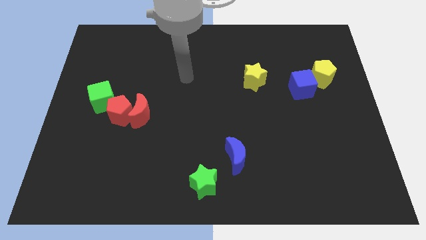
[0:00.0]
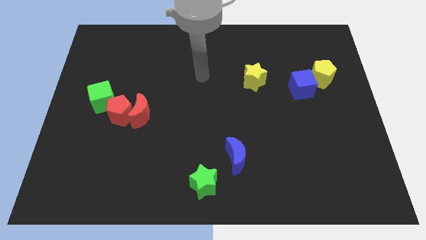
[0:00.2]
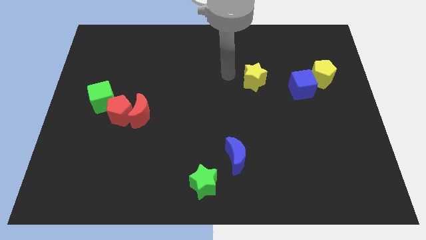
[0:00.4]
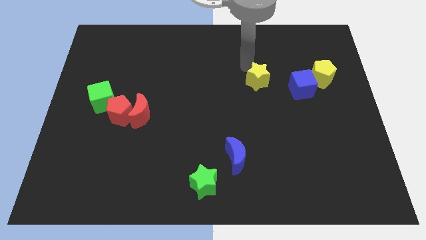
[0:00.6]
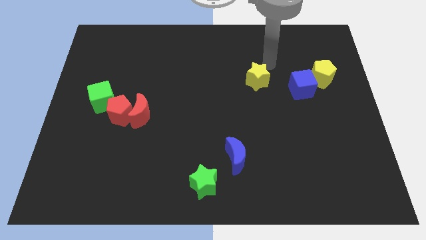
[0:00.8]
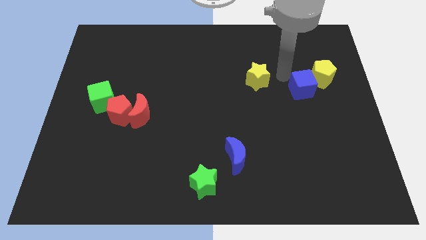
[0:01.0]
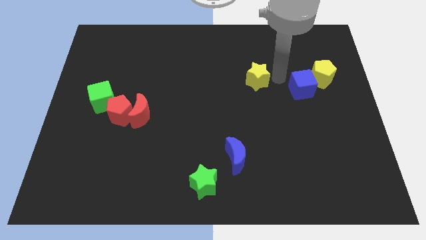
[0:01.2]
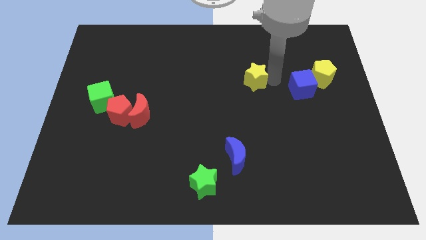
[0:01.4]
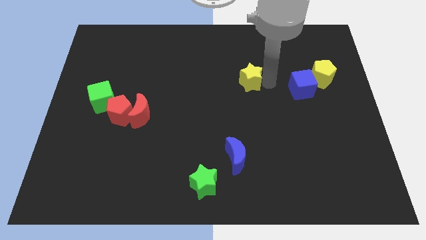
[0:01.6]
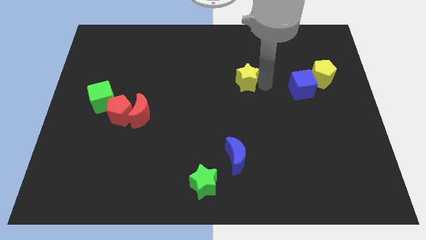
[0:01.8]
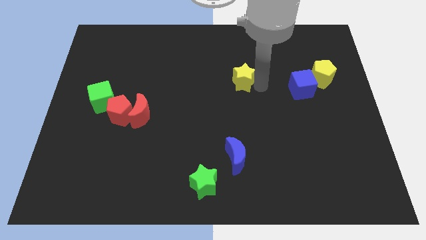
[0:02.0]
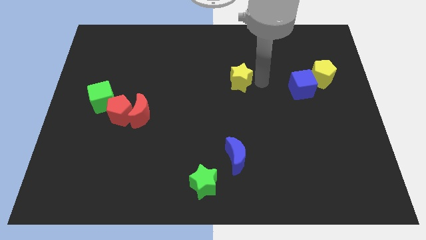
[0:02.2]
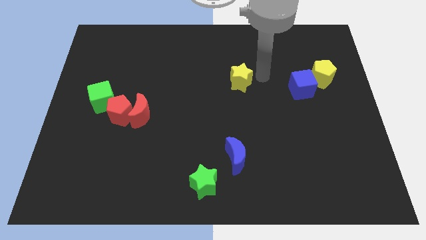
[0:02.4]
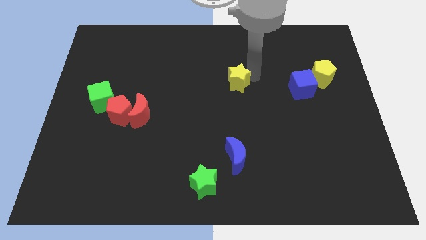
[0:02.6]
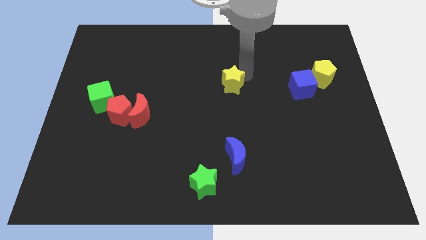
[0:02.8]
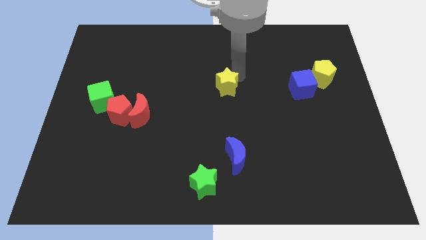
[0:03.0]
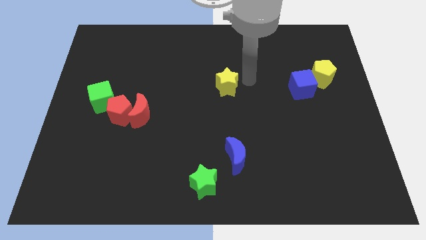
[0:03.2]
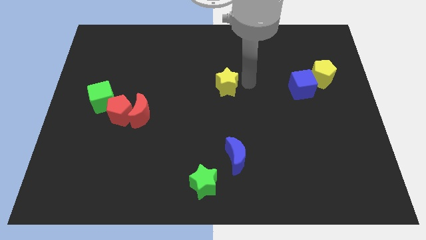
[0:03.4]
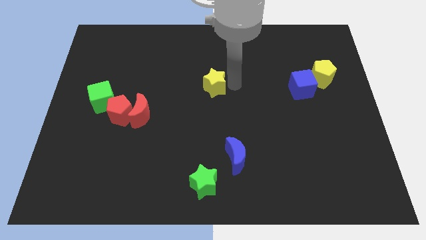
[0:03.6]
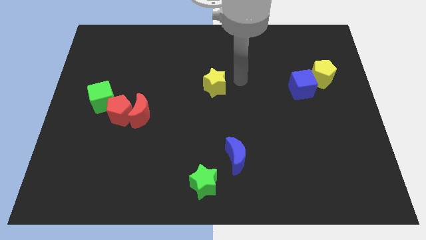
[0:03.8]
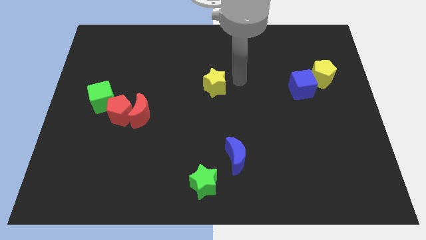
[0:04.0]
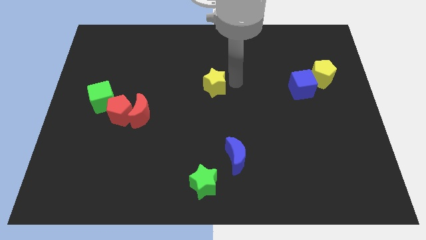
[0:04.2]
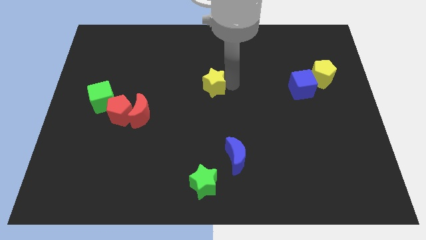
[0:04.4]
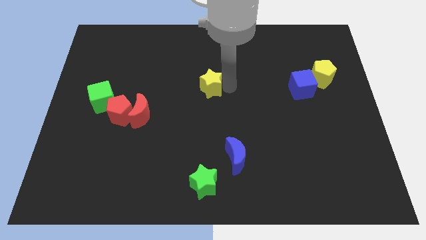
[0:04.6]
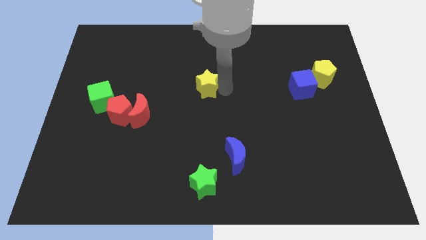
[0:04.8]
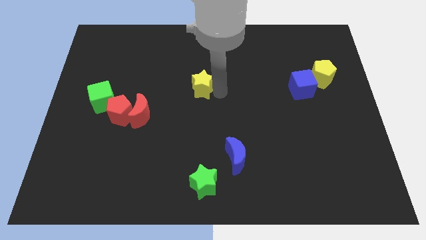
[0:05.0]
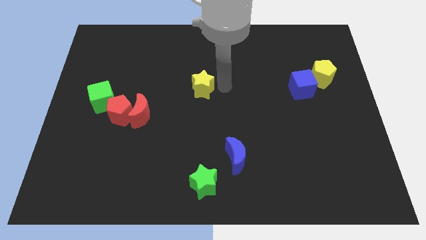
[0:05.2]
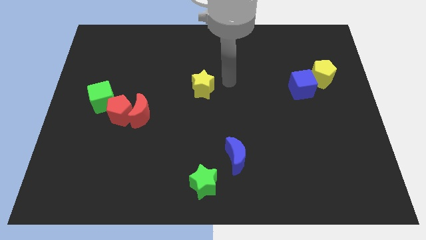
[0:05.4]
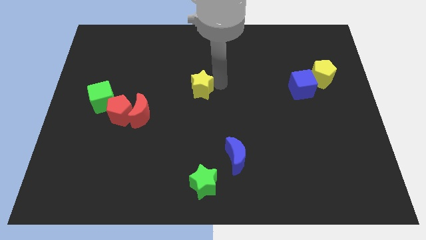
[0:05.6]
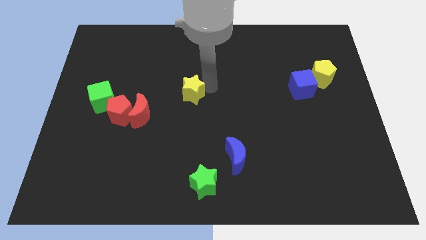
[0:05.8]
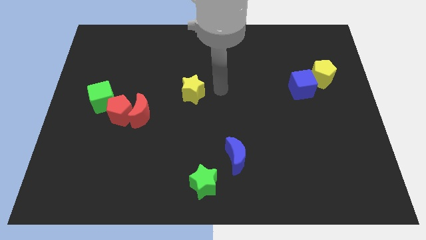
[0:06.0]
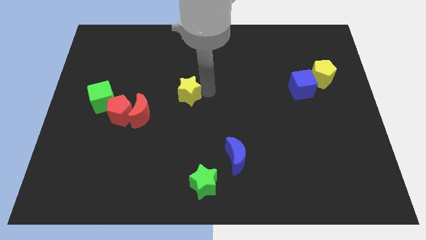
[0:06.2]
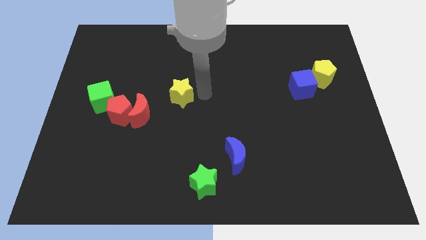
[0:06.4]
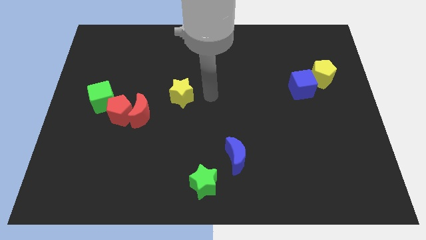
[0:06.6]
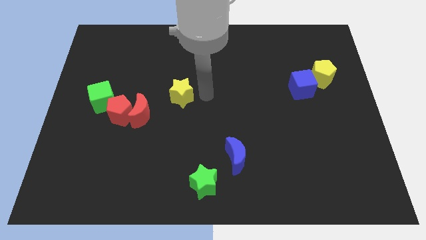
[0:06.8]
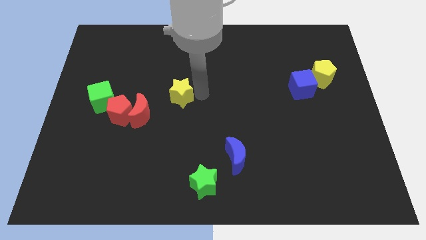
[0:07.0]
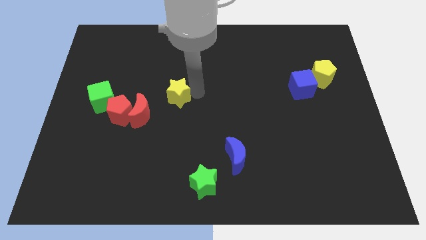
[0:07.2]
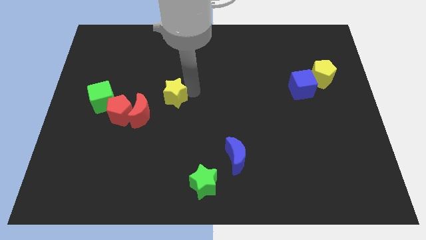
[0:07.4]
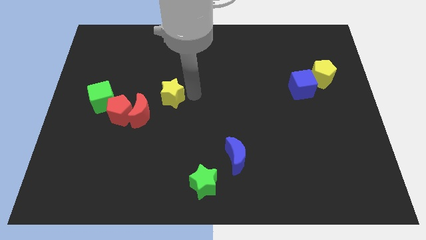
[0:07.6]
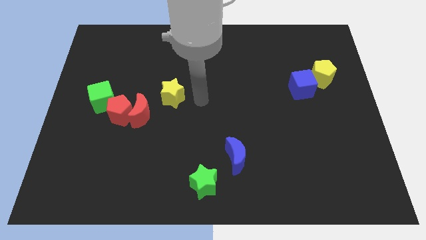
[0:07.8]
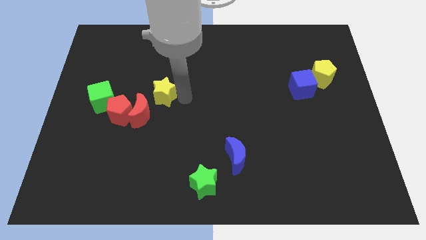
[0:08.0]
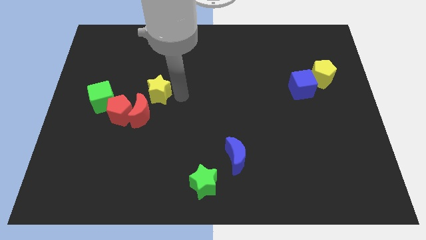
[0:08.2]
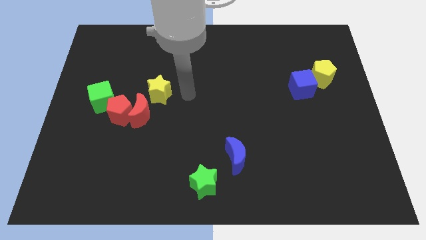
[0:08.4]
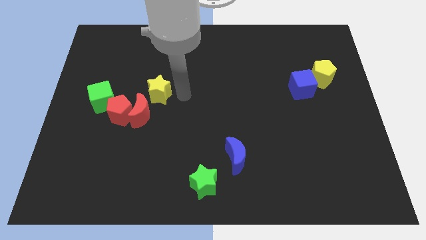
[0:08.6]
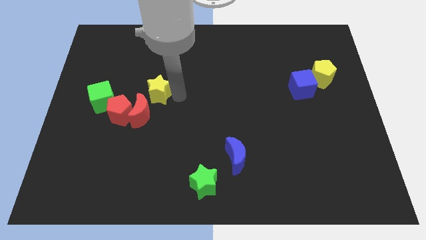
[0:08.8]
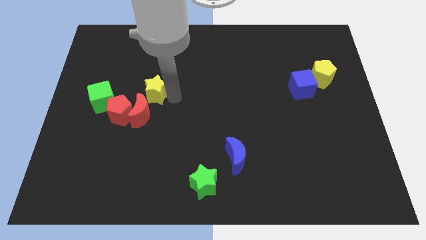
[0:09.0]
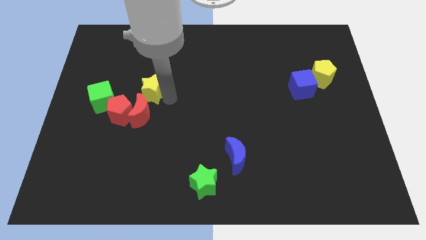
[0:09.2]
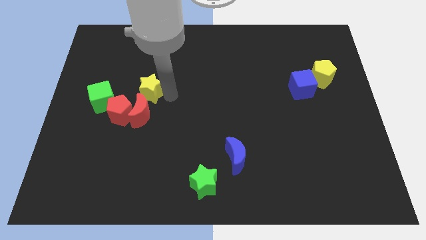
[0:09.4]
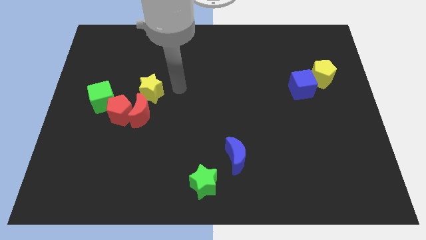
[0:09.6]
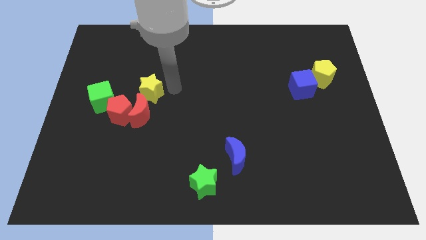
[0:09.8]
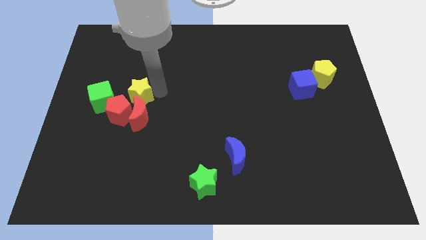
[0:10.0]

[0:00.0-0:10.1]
push the yellow star diagonally up and to the left of the red moon

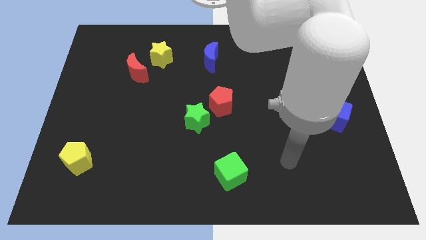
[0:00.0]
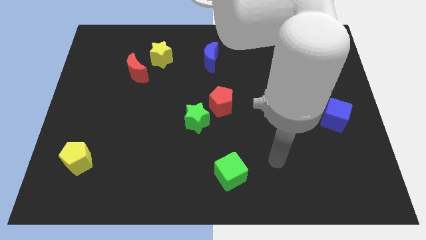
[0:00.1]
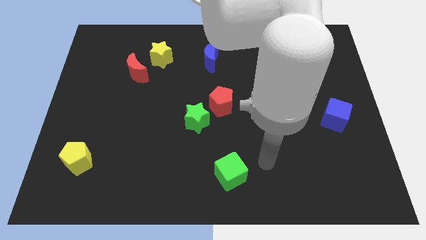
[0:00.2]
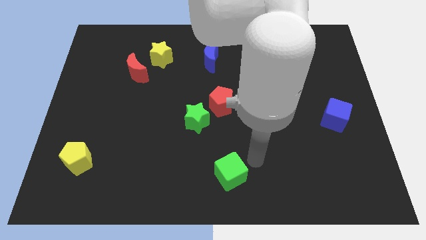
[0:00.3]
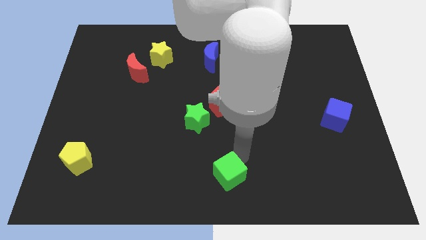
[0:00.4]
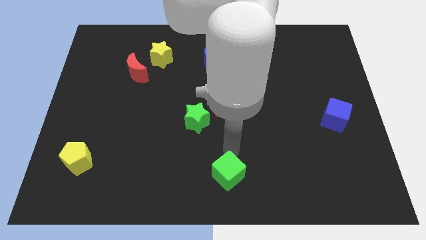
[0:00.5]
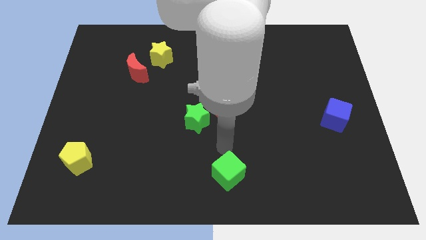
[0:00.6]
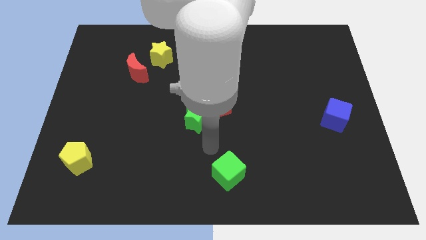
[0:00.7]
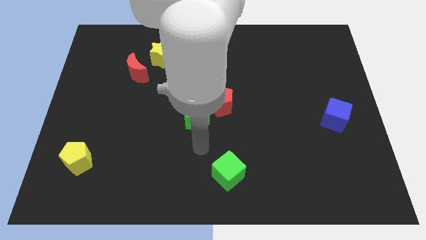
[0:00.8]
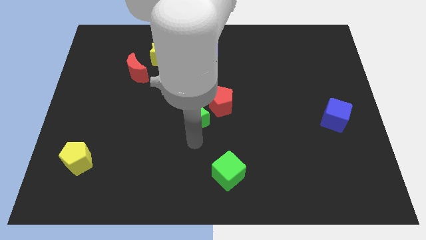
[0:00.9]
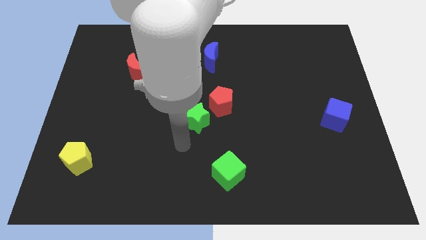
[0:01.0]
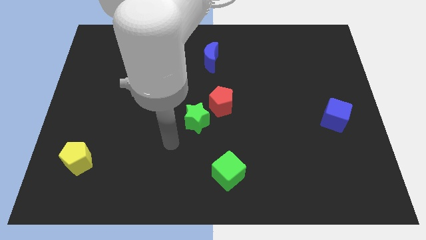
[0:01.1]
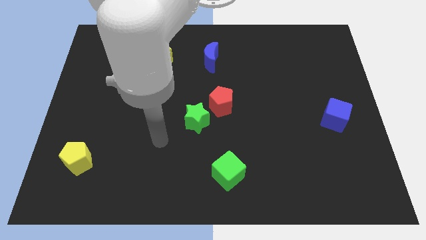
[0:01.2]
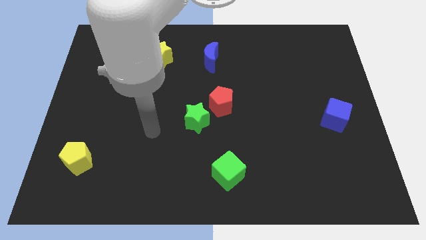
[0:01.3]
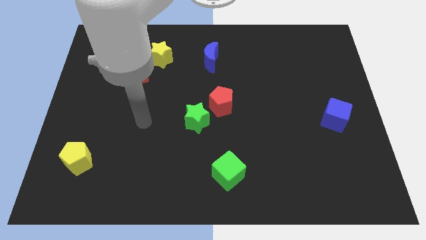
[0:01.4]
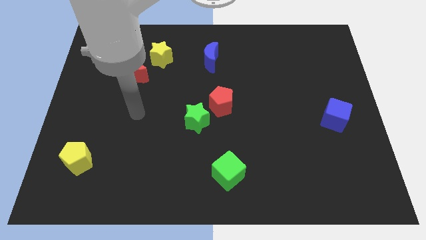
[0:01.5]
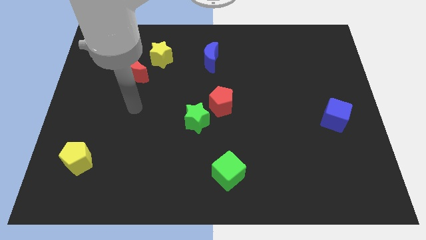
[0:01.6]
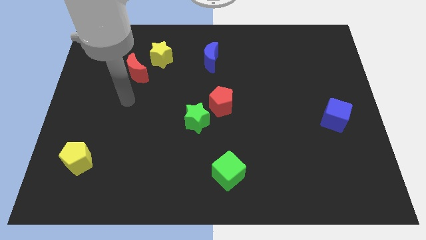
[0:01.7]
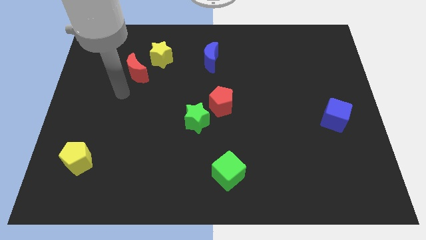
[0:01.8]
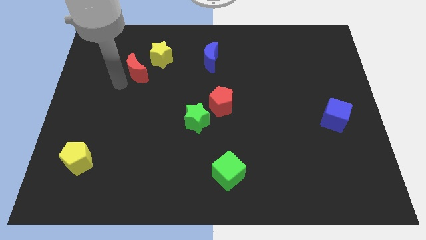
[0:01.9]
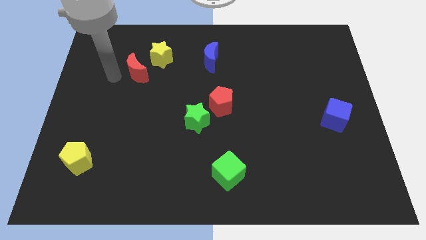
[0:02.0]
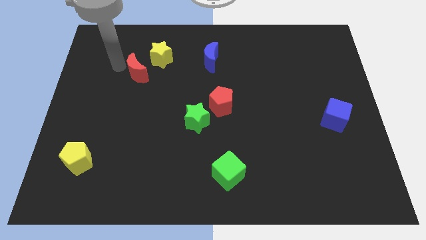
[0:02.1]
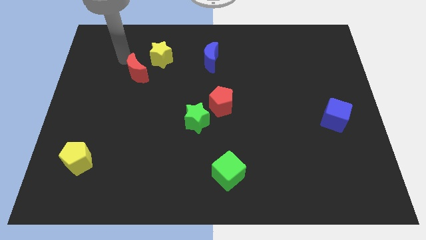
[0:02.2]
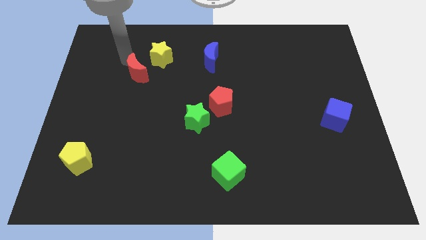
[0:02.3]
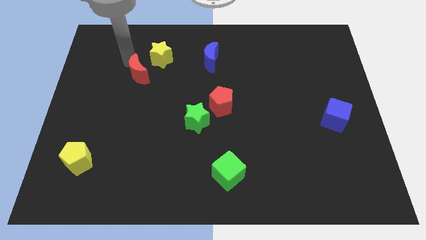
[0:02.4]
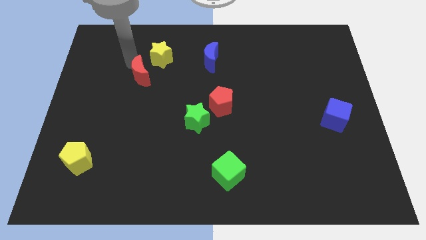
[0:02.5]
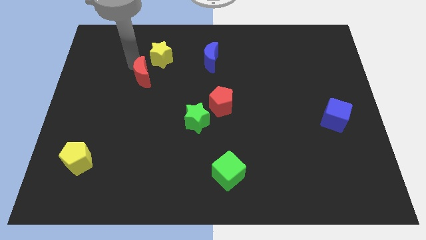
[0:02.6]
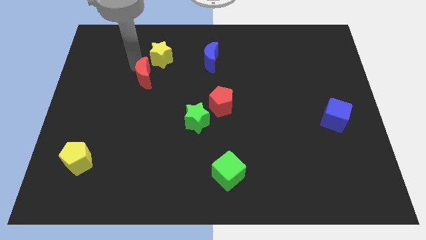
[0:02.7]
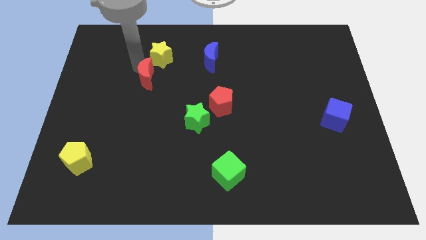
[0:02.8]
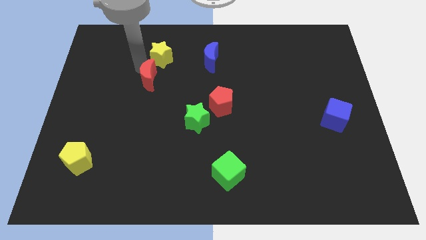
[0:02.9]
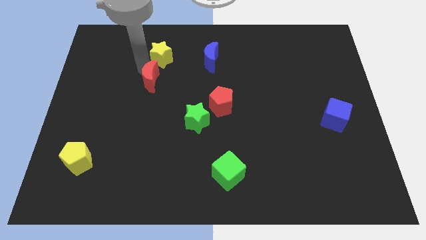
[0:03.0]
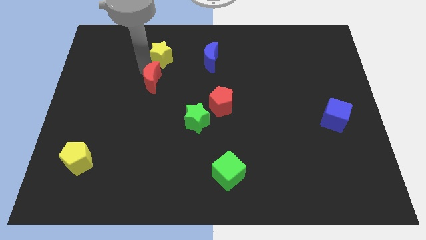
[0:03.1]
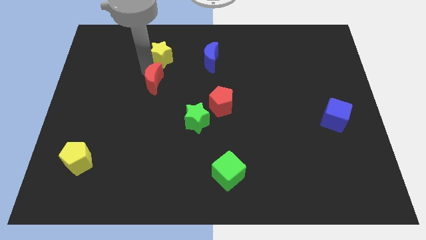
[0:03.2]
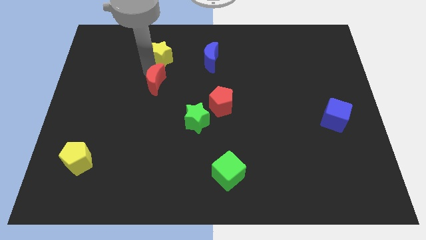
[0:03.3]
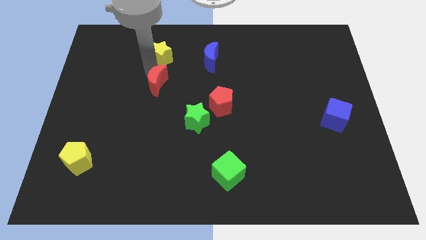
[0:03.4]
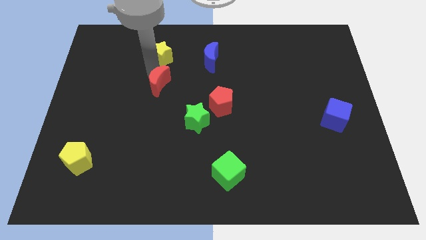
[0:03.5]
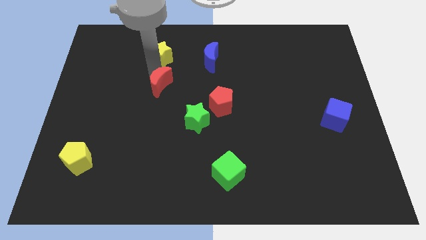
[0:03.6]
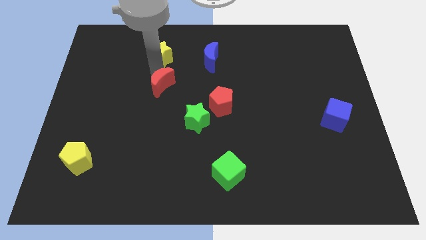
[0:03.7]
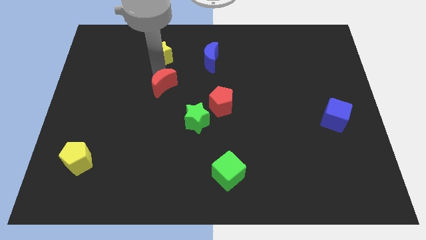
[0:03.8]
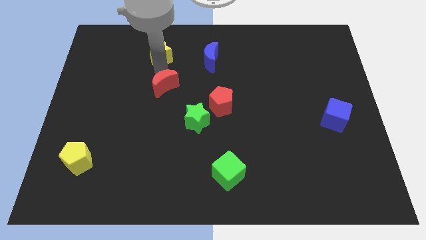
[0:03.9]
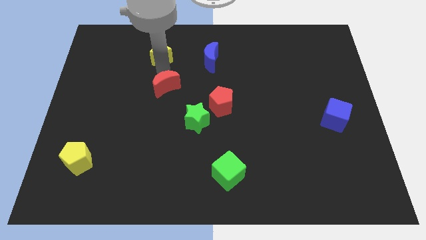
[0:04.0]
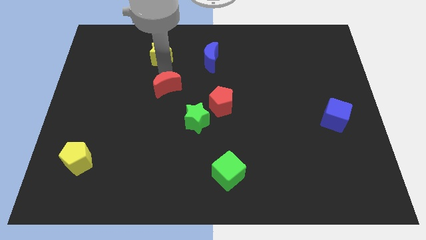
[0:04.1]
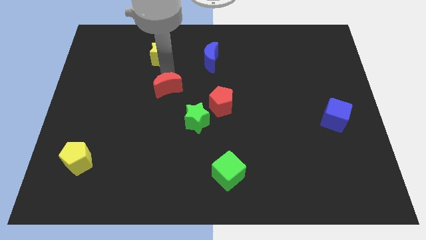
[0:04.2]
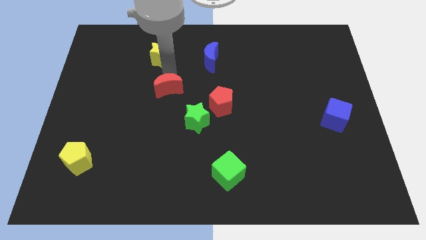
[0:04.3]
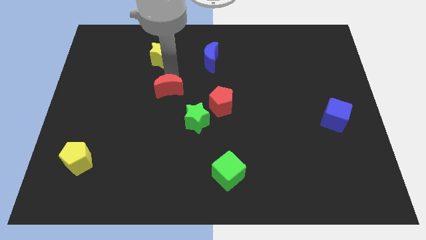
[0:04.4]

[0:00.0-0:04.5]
push the red moon left of the red pentagon
